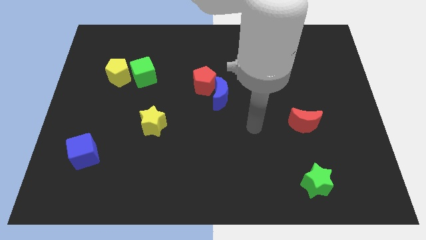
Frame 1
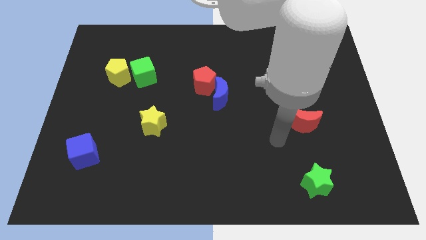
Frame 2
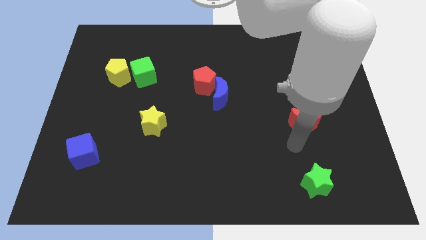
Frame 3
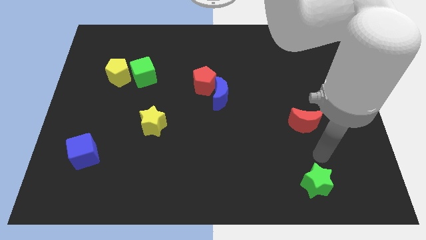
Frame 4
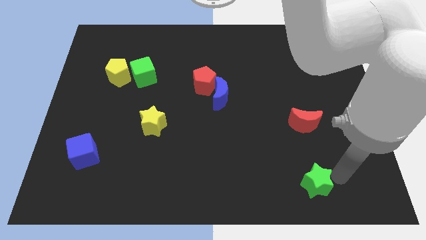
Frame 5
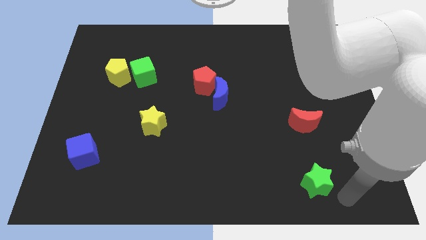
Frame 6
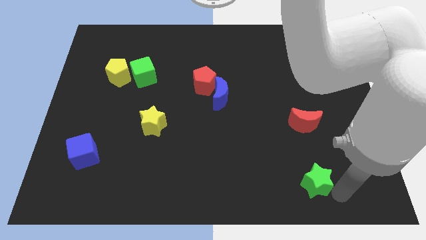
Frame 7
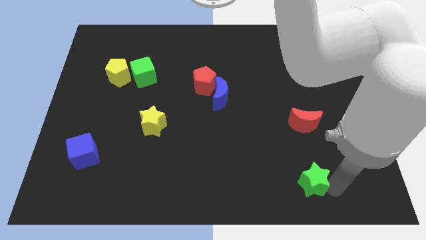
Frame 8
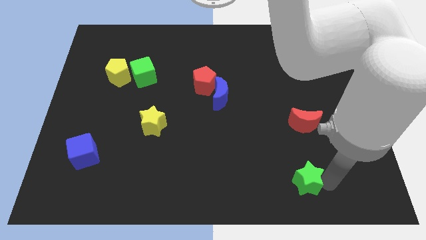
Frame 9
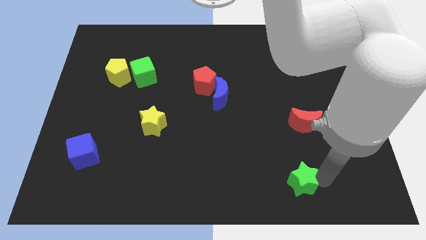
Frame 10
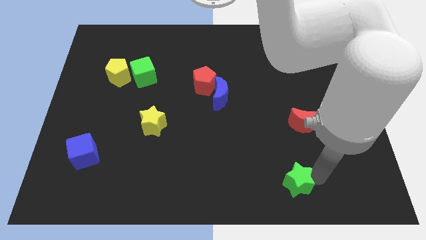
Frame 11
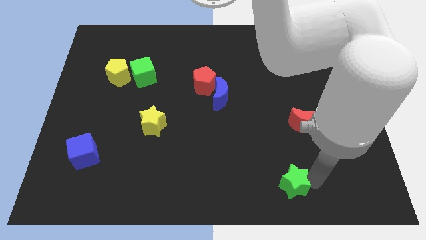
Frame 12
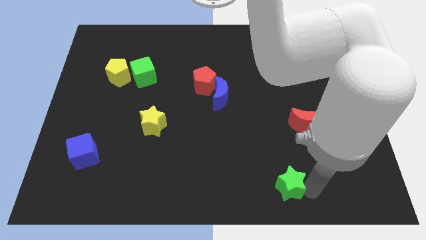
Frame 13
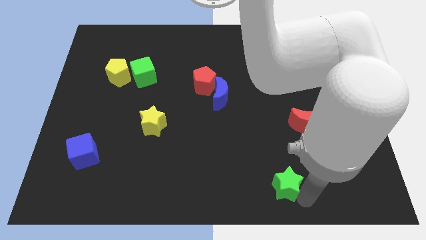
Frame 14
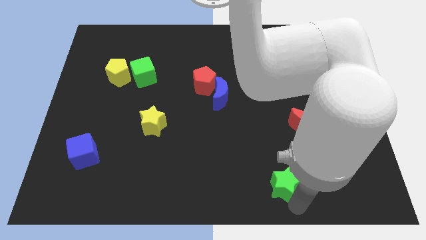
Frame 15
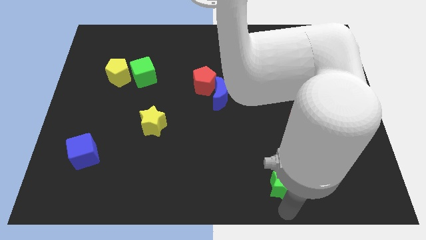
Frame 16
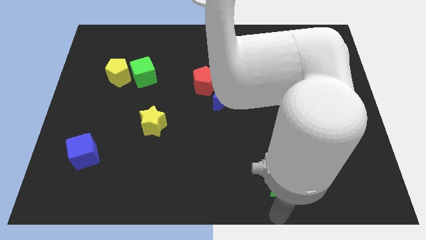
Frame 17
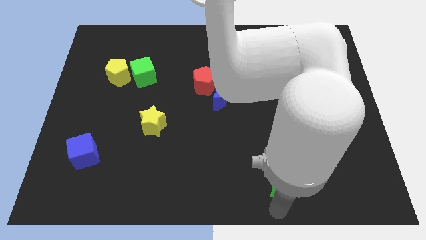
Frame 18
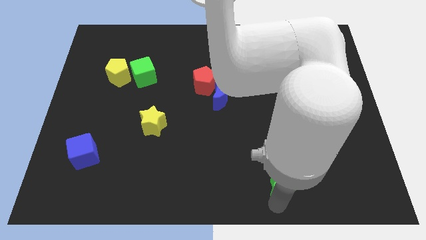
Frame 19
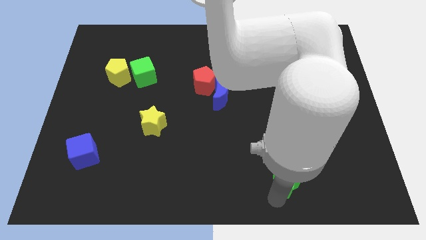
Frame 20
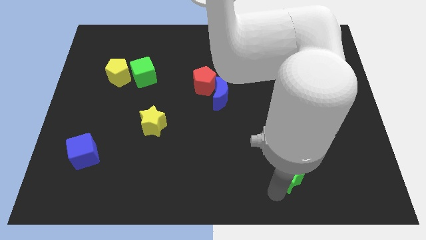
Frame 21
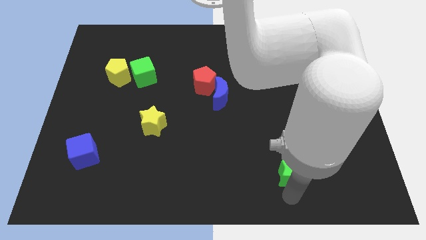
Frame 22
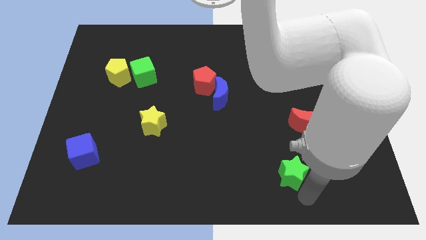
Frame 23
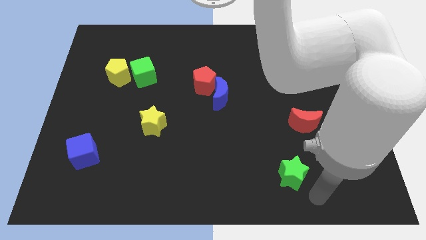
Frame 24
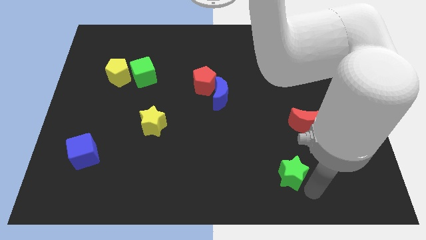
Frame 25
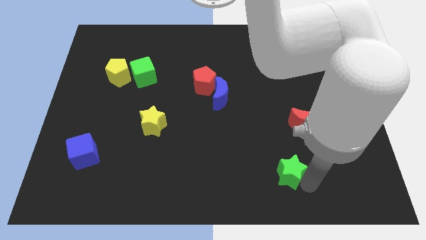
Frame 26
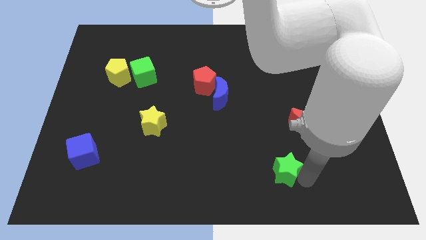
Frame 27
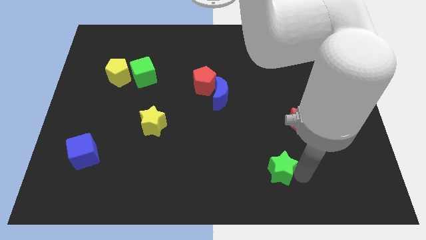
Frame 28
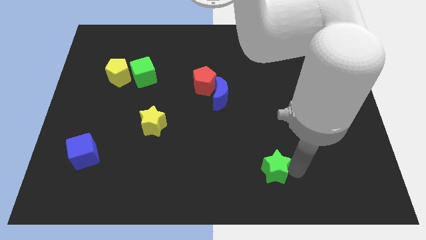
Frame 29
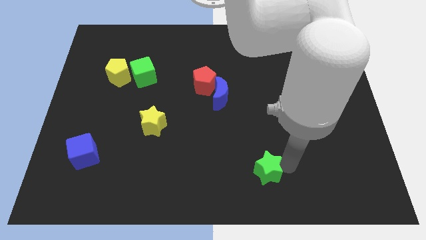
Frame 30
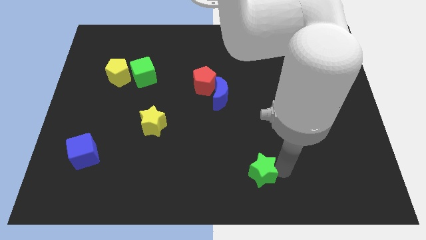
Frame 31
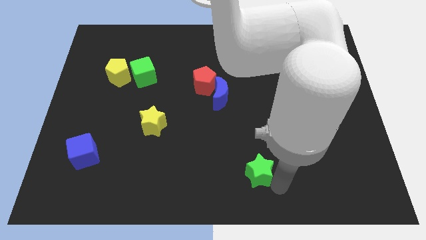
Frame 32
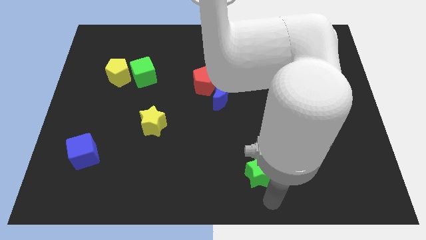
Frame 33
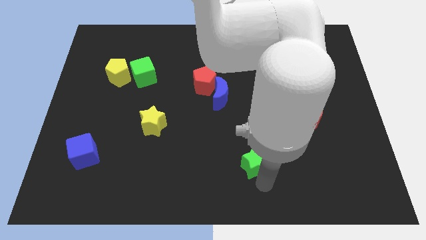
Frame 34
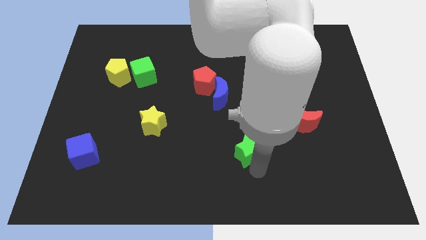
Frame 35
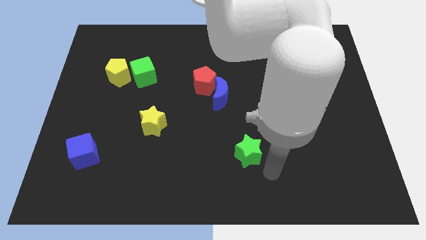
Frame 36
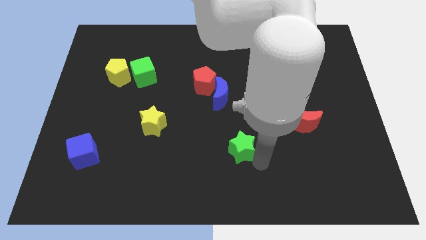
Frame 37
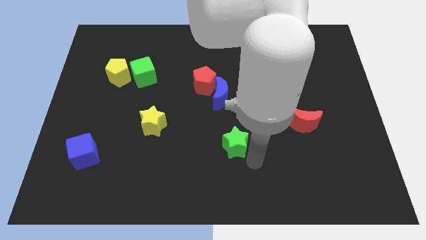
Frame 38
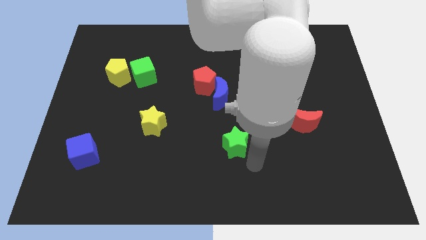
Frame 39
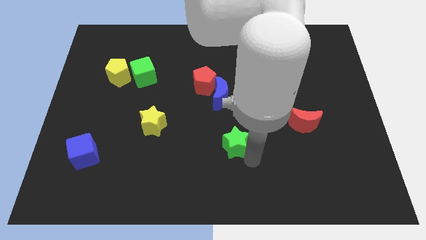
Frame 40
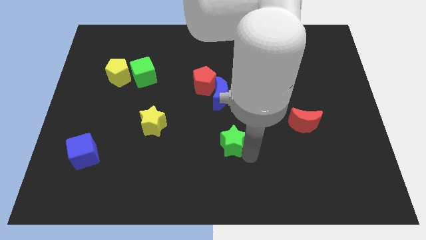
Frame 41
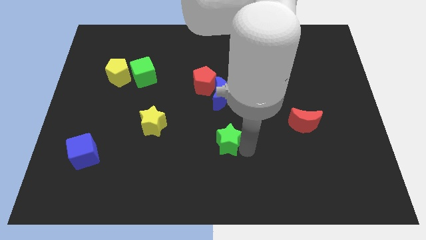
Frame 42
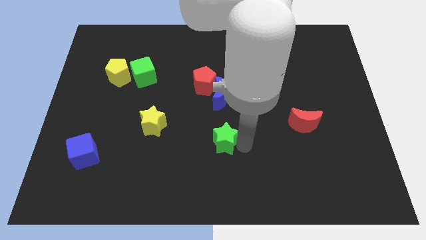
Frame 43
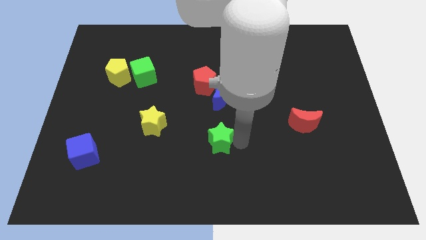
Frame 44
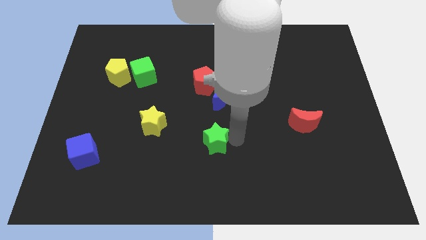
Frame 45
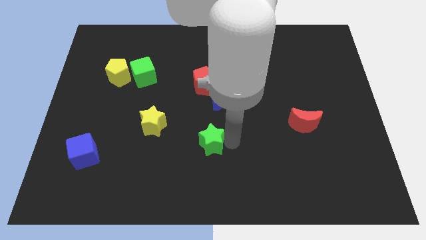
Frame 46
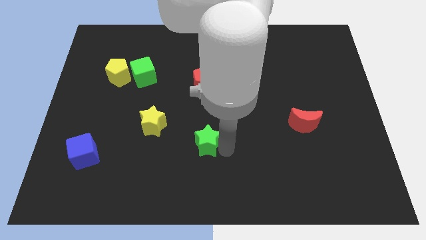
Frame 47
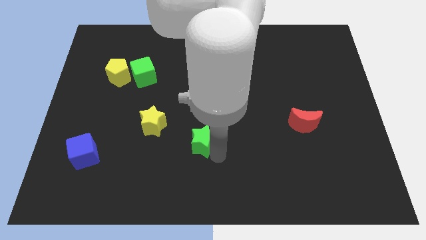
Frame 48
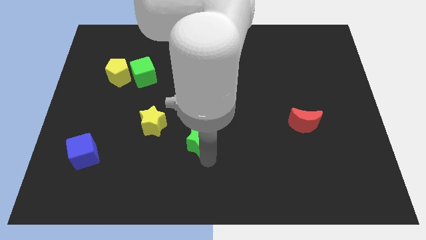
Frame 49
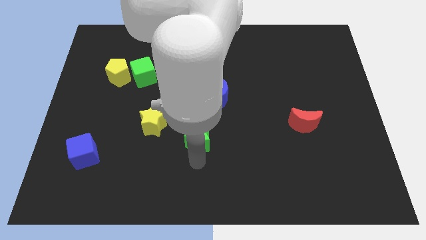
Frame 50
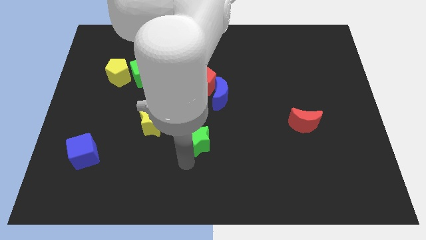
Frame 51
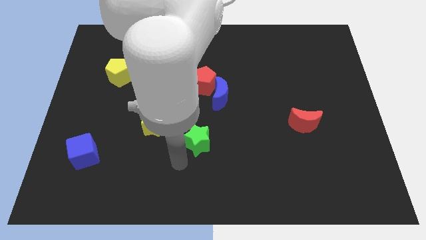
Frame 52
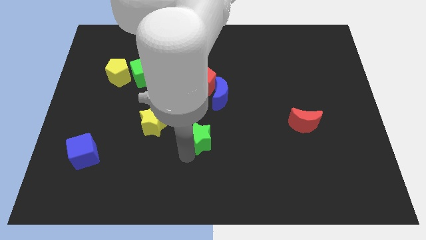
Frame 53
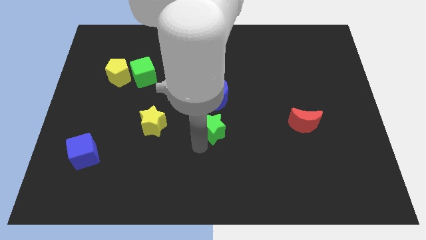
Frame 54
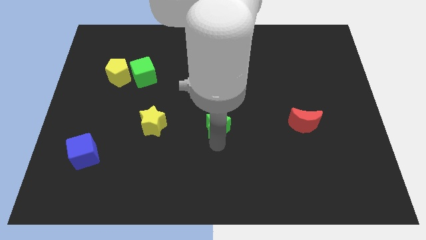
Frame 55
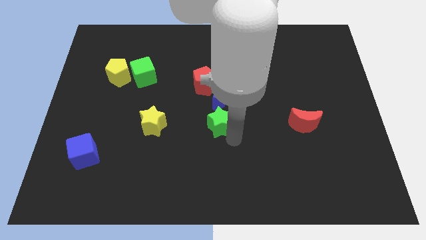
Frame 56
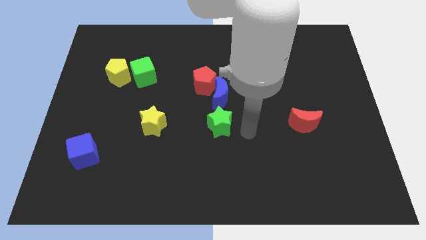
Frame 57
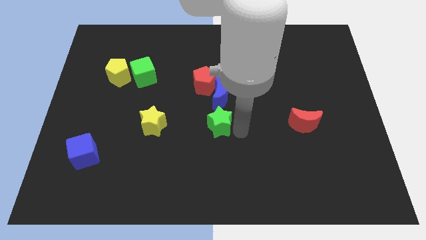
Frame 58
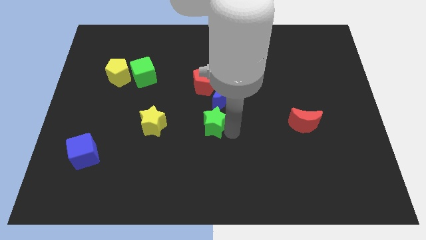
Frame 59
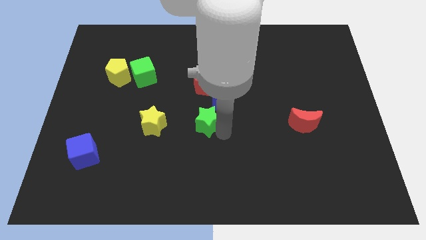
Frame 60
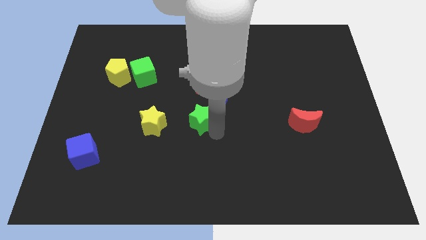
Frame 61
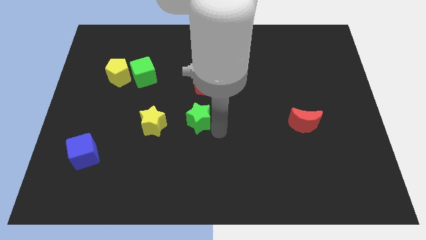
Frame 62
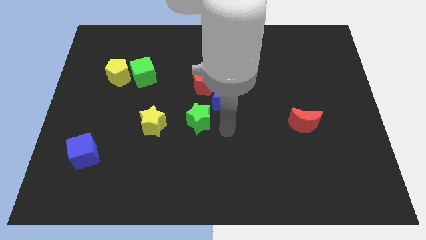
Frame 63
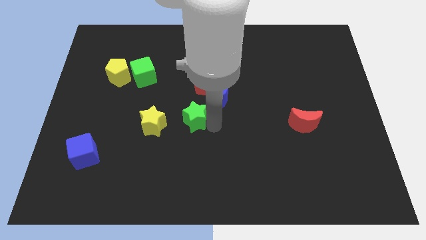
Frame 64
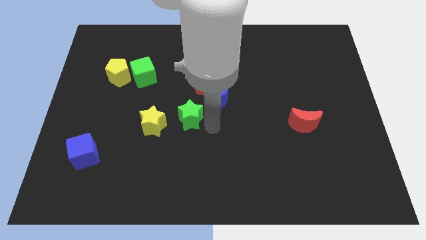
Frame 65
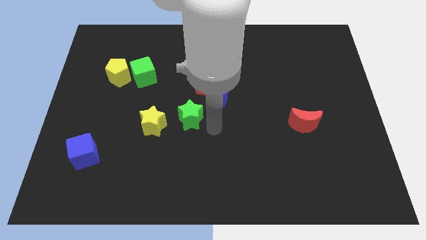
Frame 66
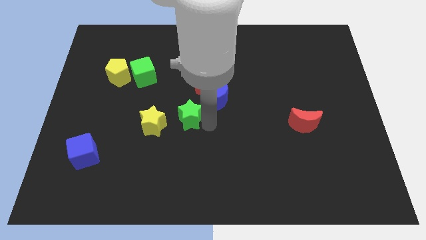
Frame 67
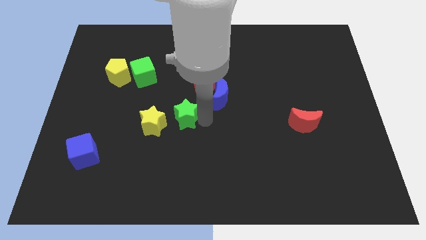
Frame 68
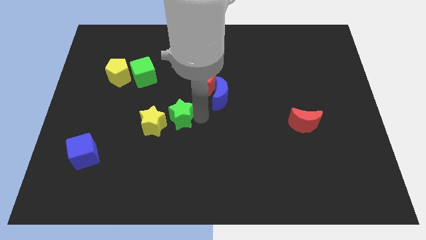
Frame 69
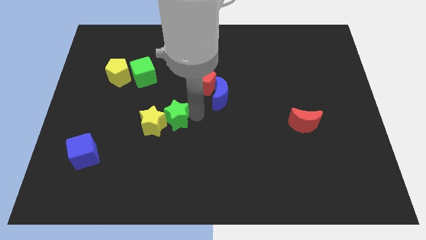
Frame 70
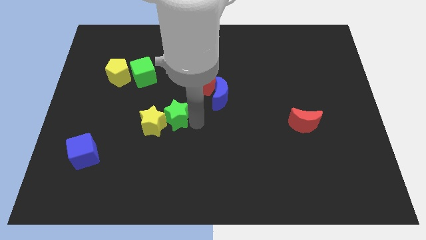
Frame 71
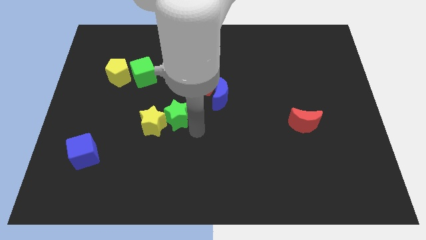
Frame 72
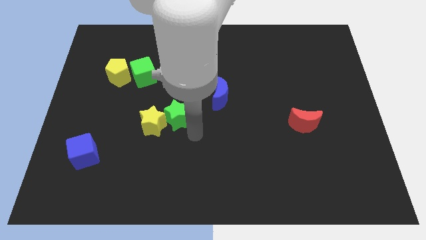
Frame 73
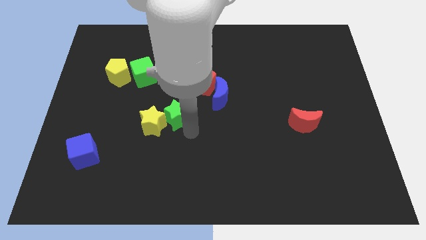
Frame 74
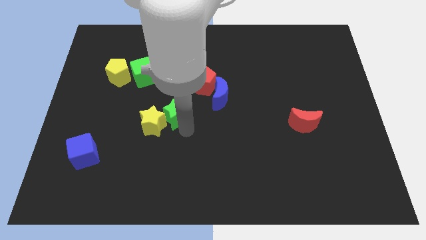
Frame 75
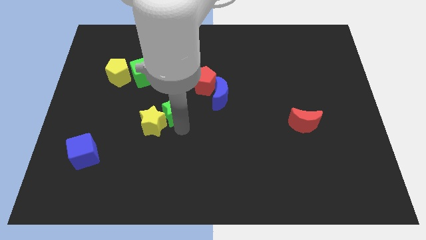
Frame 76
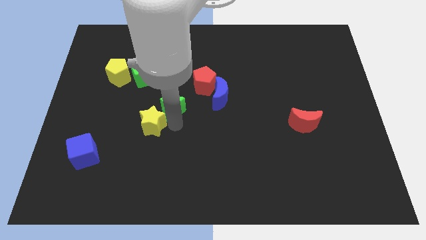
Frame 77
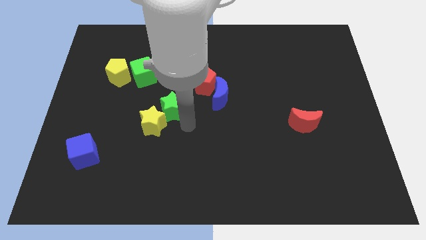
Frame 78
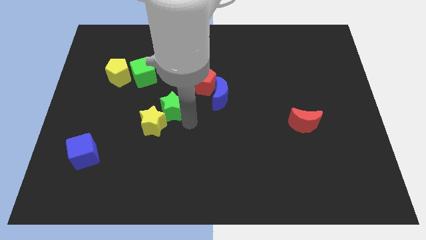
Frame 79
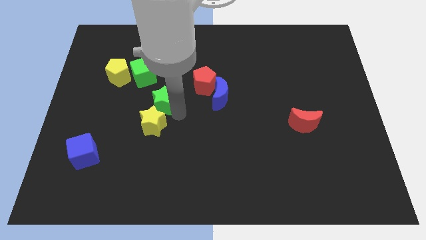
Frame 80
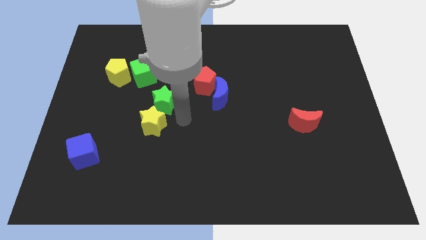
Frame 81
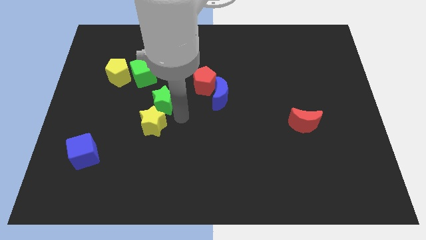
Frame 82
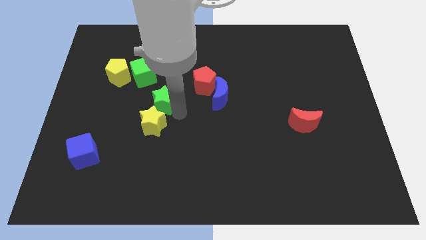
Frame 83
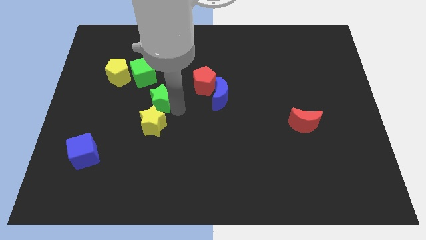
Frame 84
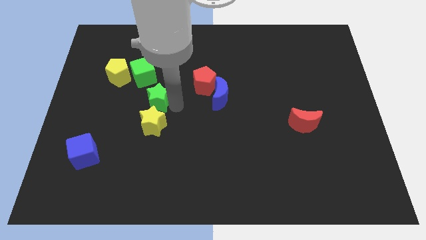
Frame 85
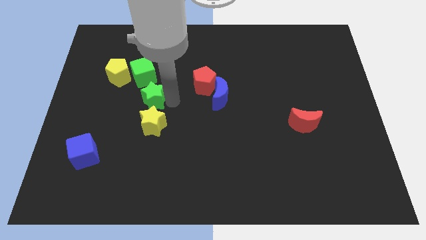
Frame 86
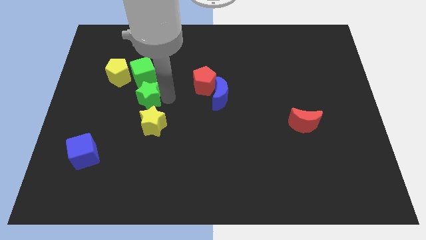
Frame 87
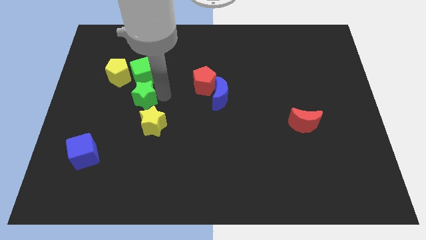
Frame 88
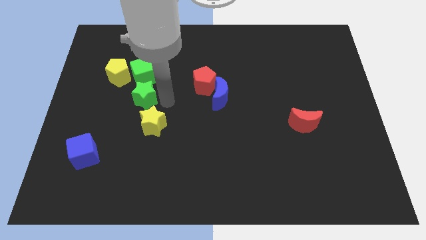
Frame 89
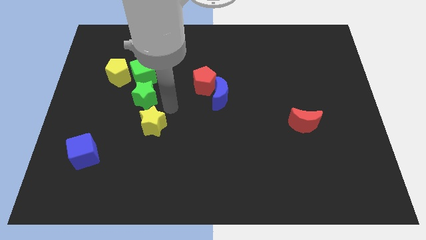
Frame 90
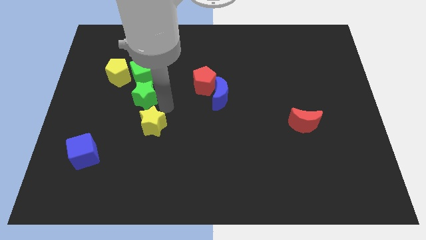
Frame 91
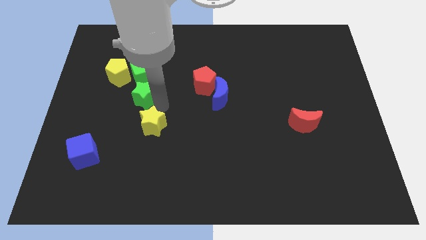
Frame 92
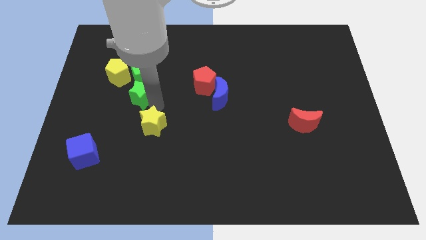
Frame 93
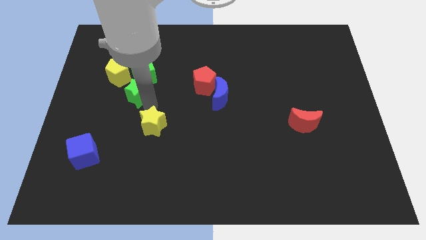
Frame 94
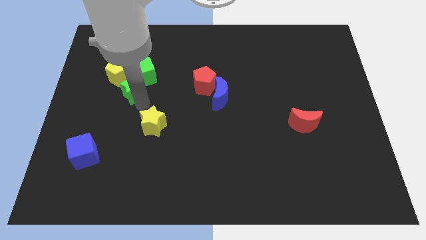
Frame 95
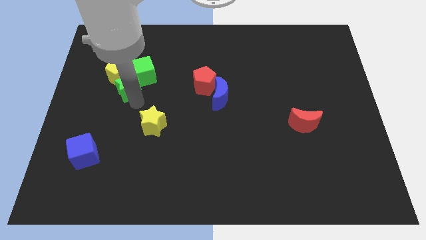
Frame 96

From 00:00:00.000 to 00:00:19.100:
push the green star to the yellow pentagon
